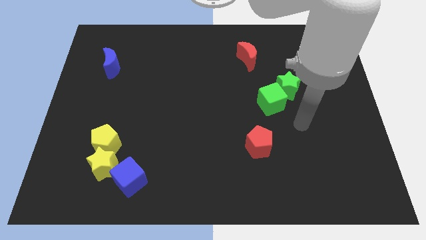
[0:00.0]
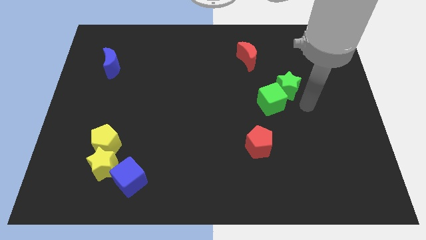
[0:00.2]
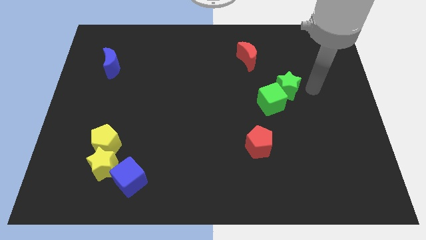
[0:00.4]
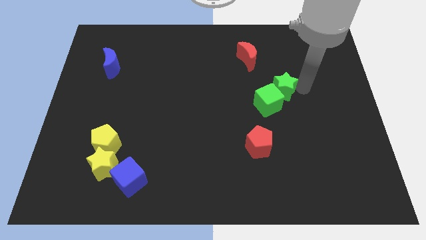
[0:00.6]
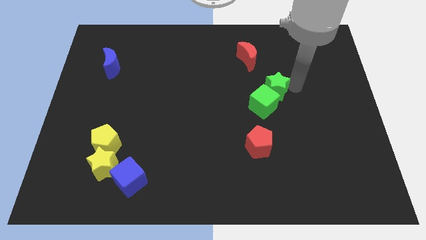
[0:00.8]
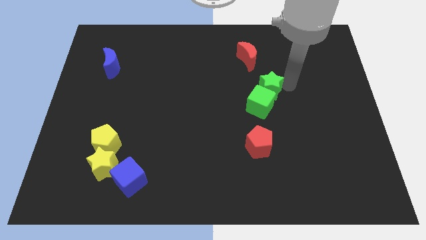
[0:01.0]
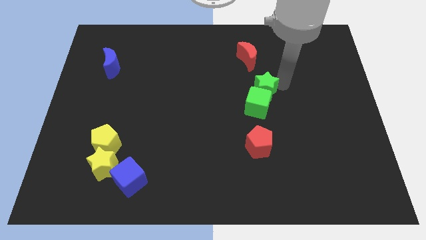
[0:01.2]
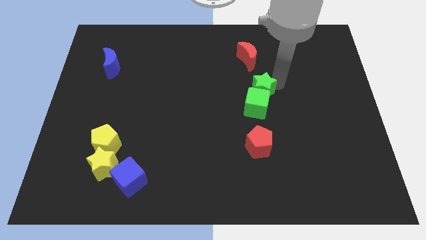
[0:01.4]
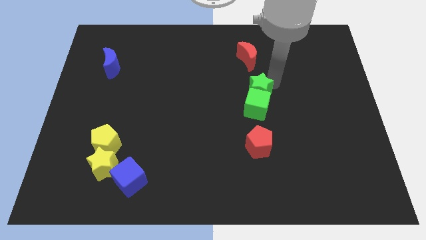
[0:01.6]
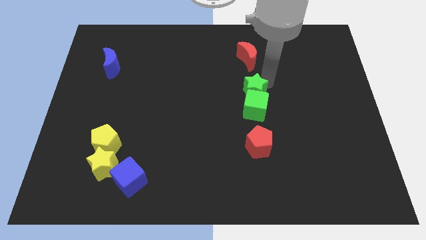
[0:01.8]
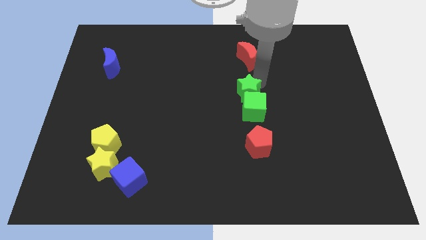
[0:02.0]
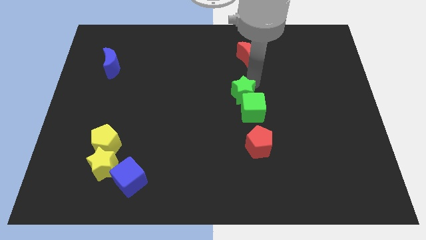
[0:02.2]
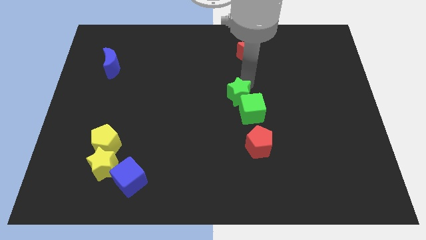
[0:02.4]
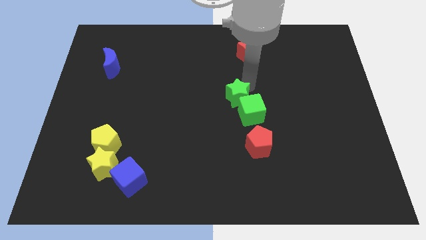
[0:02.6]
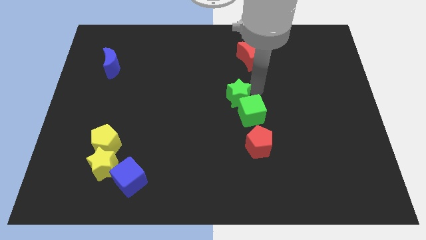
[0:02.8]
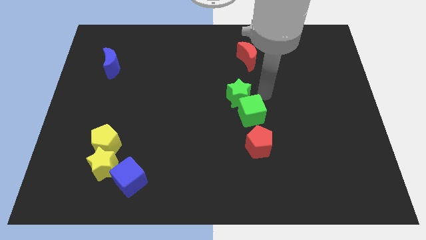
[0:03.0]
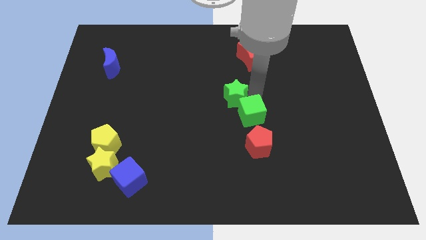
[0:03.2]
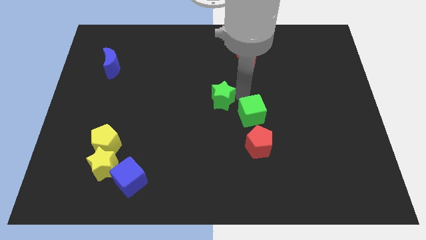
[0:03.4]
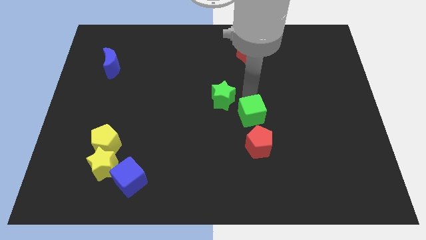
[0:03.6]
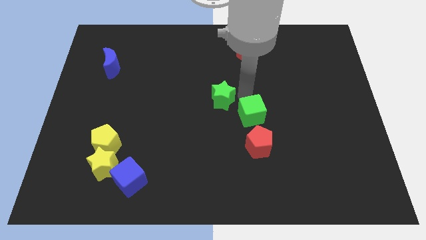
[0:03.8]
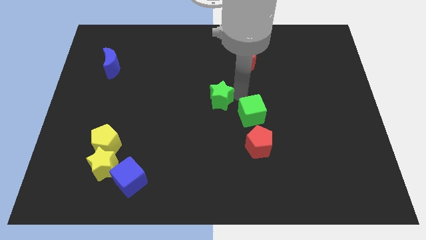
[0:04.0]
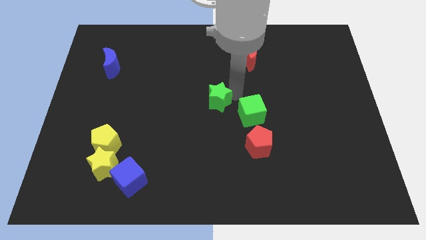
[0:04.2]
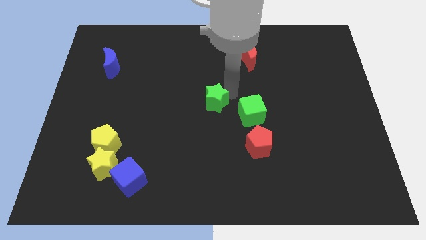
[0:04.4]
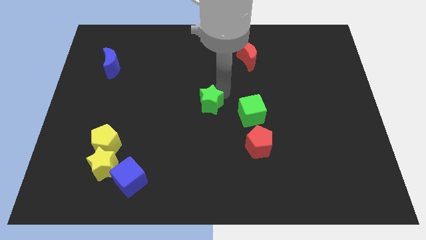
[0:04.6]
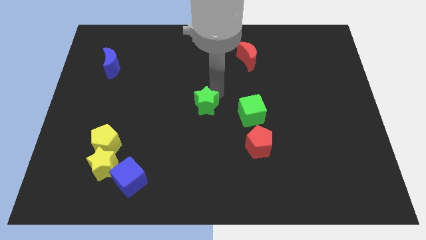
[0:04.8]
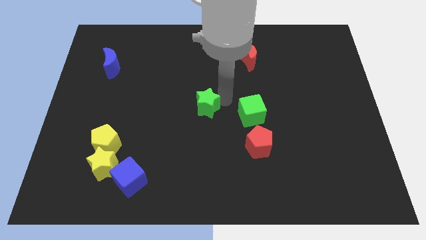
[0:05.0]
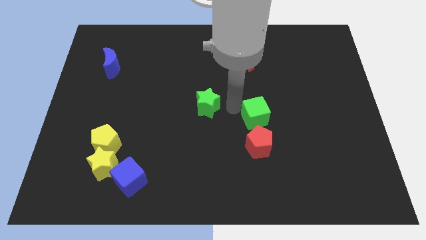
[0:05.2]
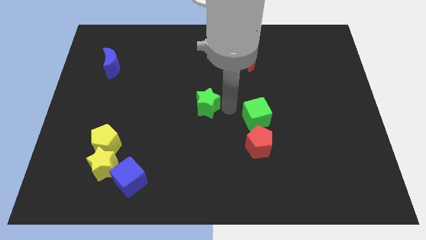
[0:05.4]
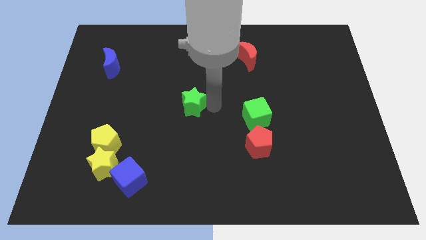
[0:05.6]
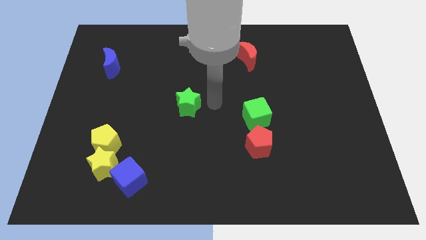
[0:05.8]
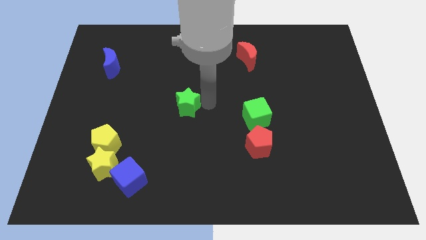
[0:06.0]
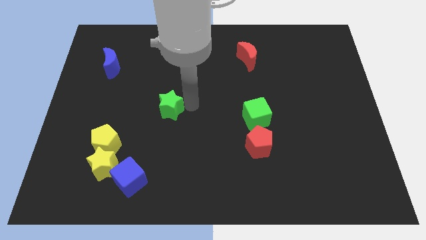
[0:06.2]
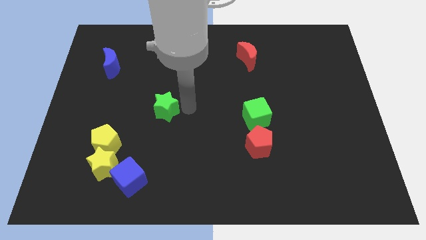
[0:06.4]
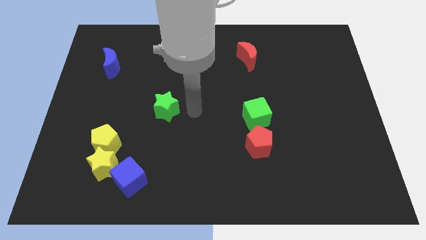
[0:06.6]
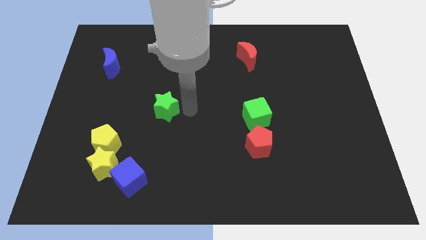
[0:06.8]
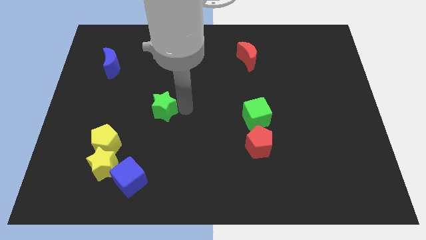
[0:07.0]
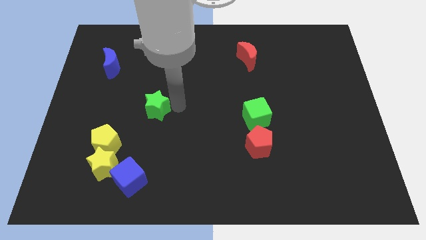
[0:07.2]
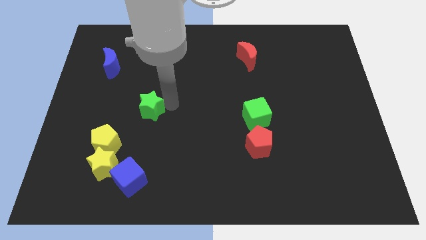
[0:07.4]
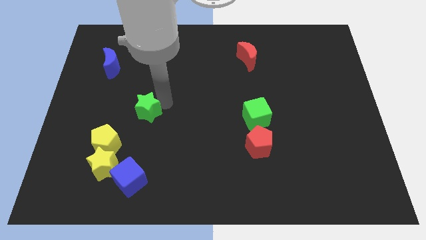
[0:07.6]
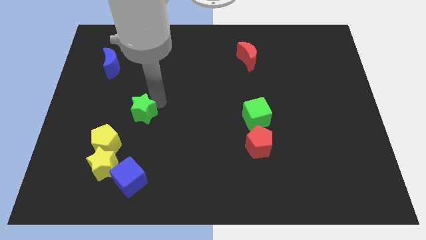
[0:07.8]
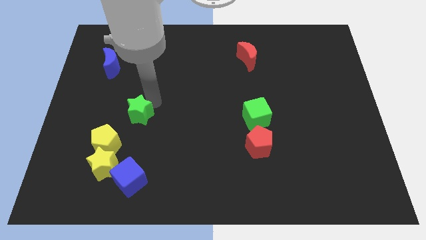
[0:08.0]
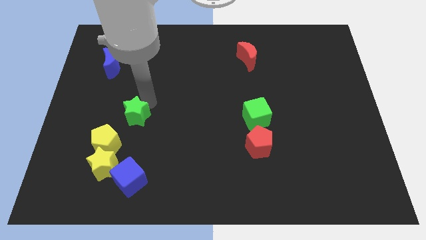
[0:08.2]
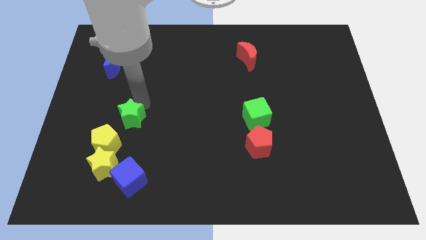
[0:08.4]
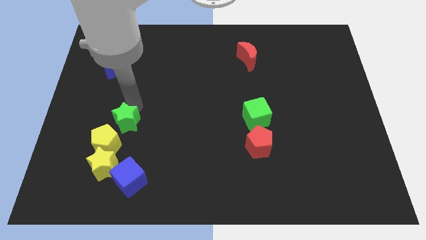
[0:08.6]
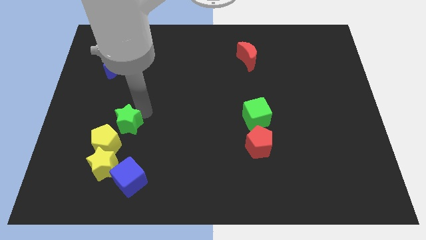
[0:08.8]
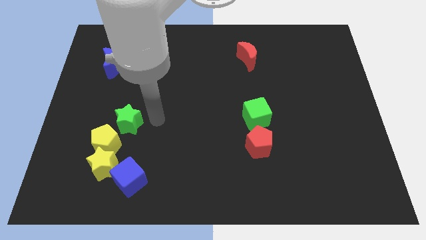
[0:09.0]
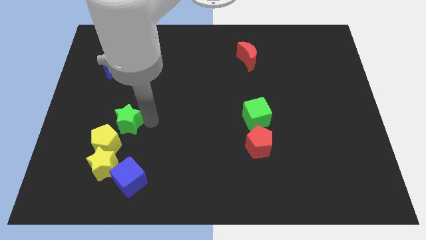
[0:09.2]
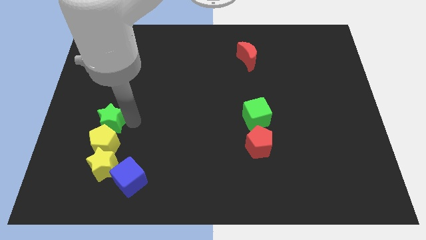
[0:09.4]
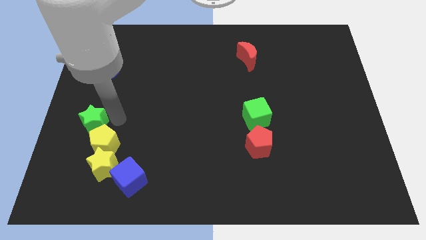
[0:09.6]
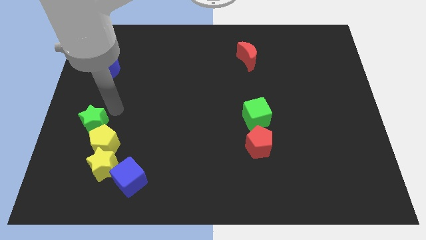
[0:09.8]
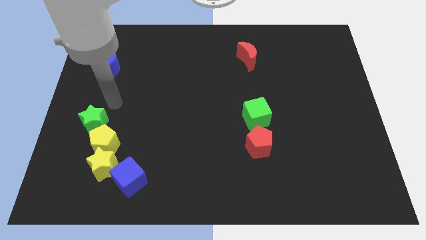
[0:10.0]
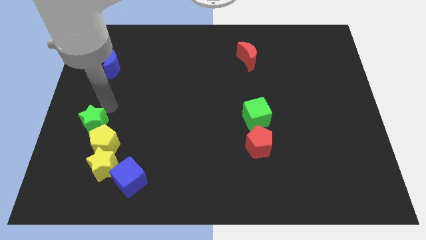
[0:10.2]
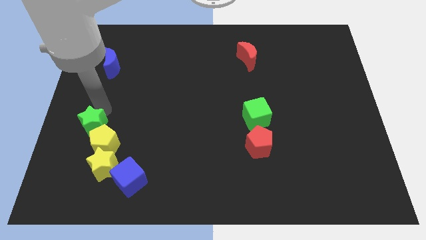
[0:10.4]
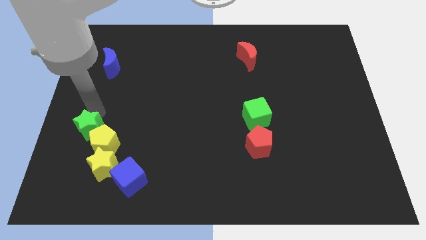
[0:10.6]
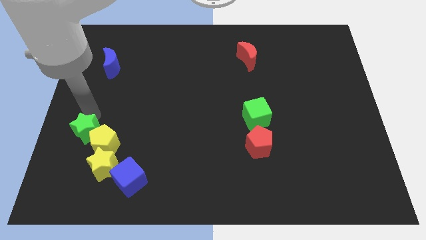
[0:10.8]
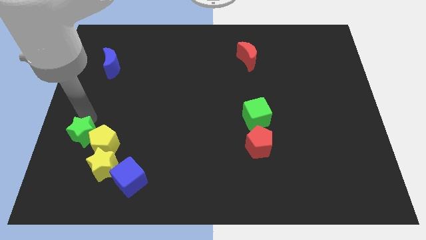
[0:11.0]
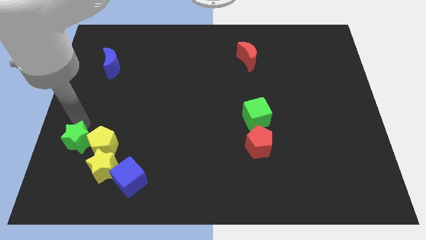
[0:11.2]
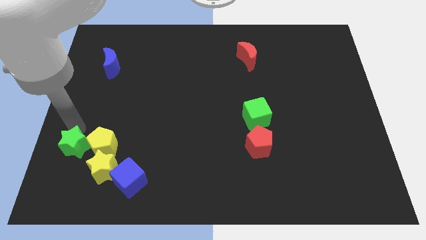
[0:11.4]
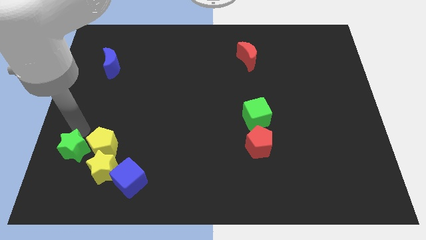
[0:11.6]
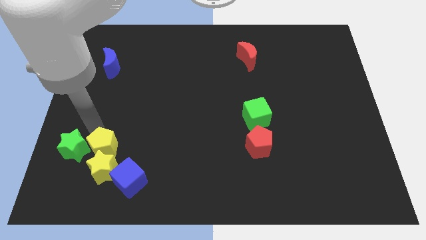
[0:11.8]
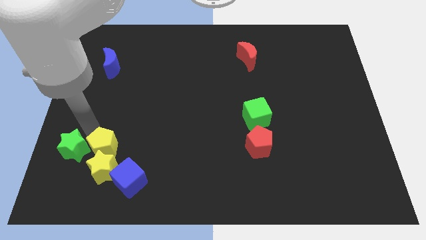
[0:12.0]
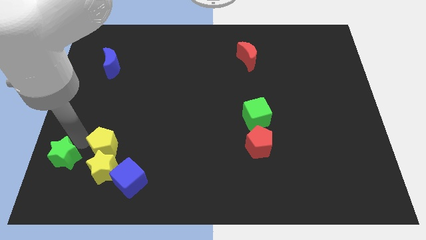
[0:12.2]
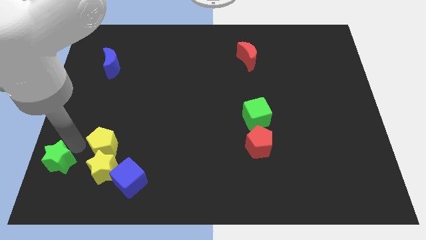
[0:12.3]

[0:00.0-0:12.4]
put the green star to the bottom left corner
